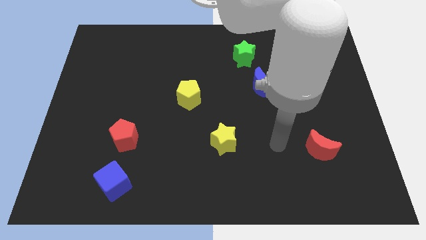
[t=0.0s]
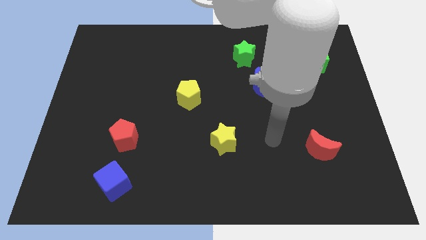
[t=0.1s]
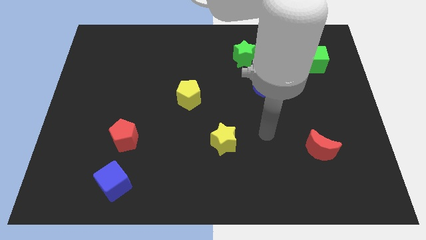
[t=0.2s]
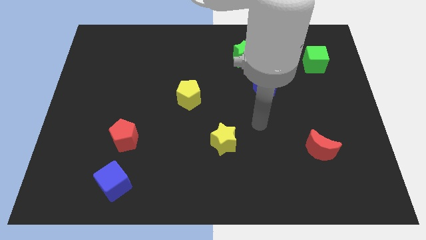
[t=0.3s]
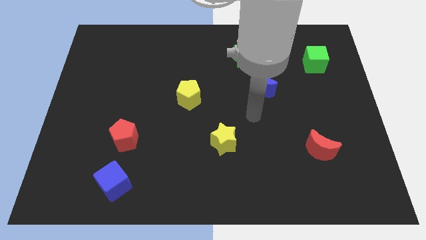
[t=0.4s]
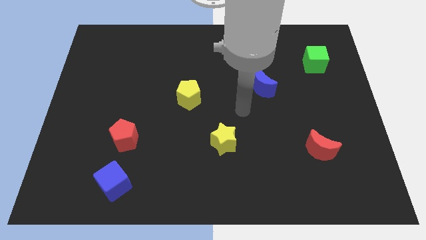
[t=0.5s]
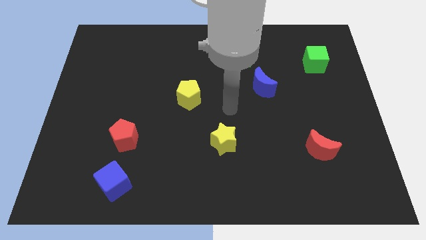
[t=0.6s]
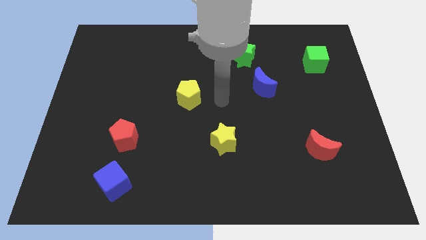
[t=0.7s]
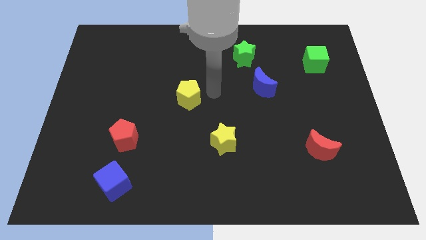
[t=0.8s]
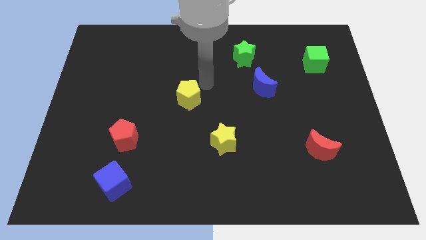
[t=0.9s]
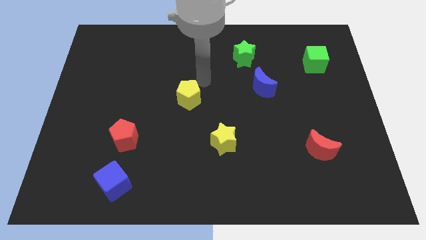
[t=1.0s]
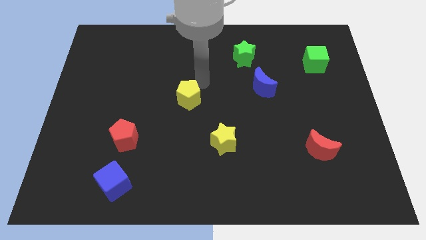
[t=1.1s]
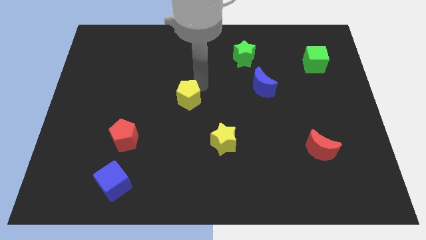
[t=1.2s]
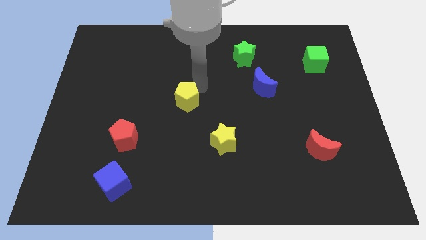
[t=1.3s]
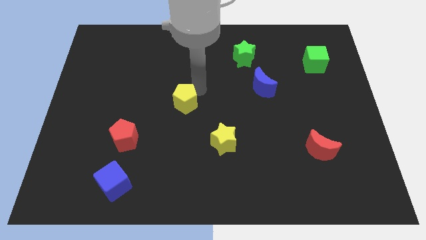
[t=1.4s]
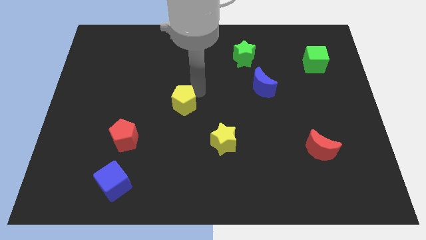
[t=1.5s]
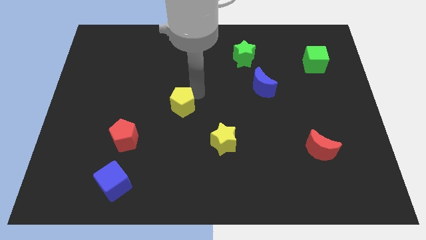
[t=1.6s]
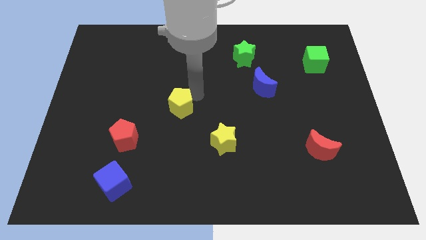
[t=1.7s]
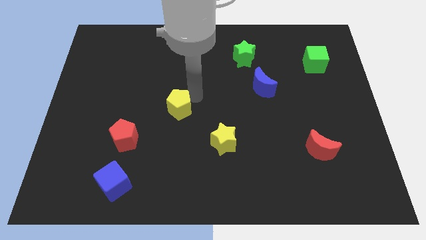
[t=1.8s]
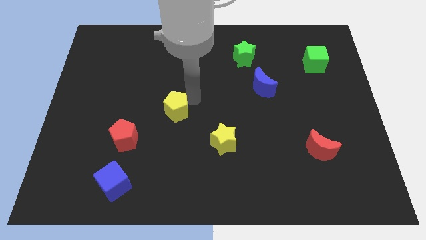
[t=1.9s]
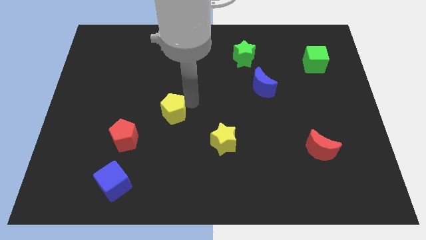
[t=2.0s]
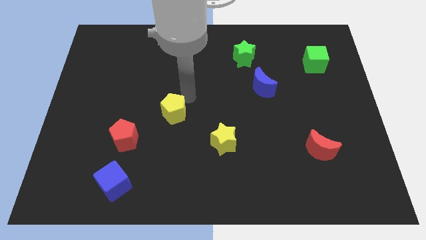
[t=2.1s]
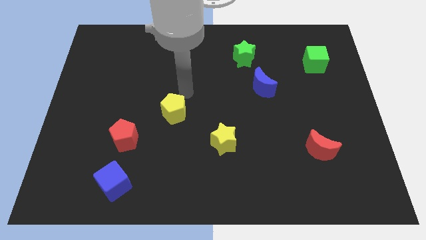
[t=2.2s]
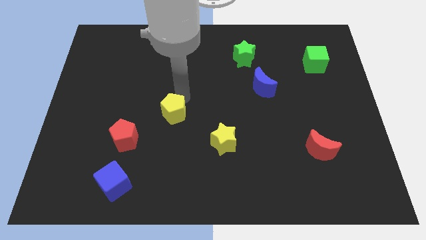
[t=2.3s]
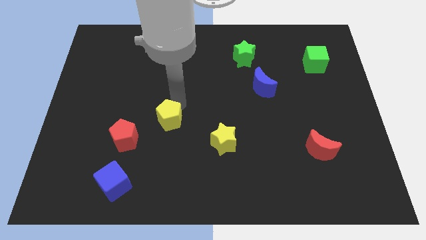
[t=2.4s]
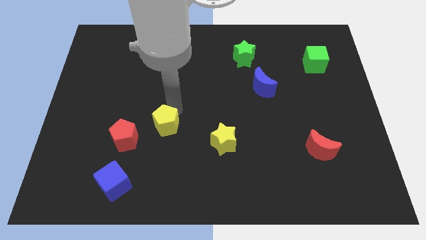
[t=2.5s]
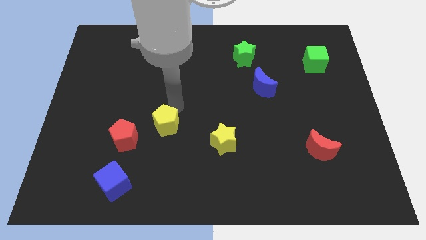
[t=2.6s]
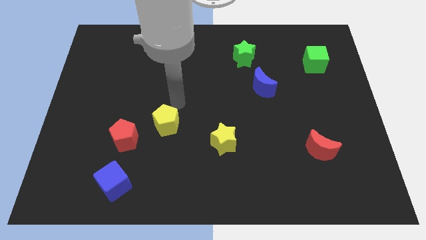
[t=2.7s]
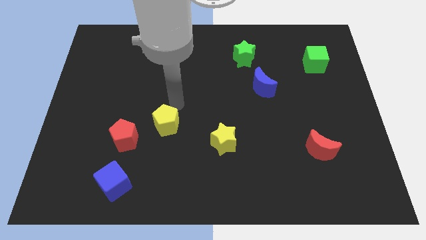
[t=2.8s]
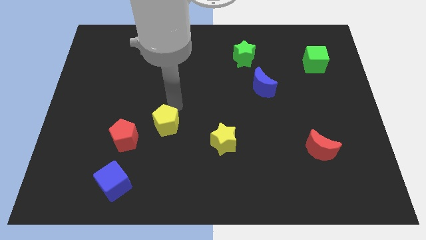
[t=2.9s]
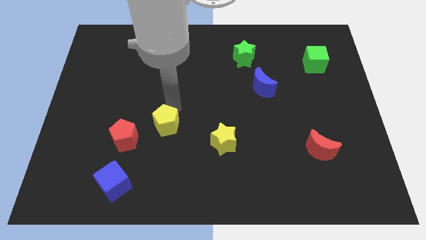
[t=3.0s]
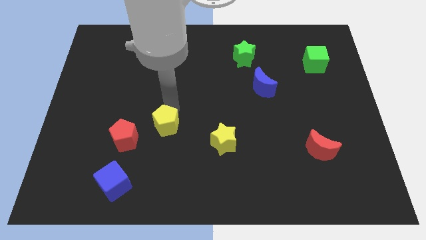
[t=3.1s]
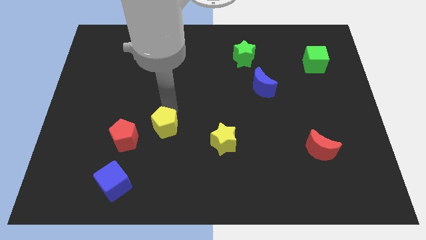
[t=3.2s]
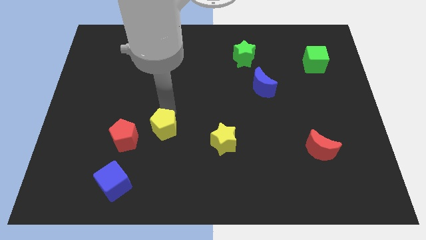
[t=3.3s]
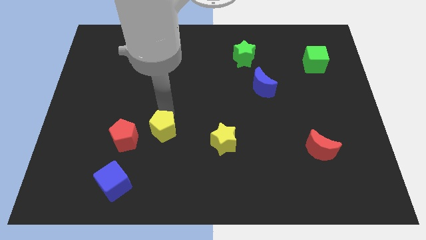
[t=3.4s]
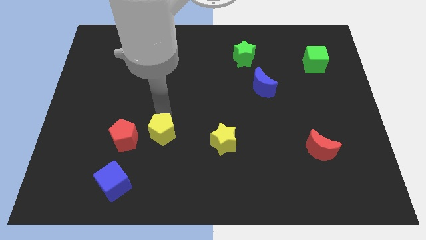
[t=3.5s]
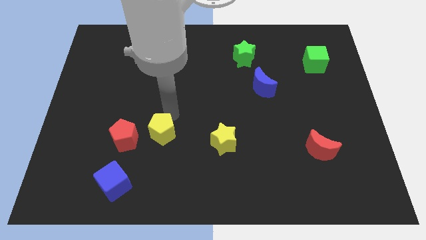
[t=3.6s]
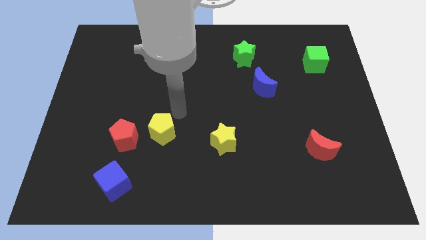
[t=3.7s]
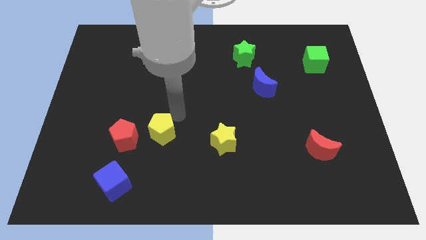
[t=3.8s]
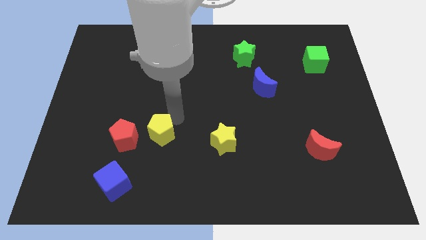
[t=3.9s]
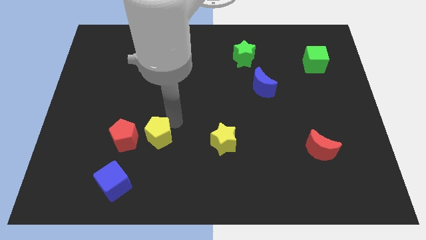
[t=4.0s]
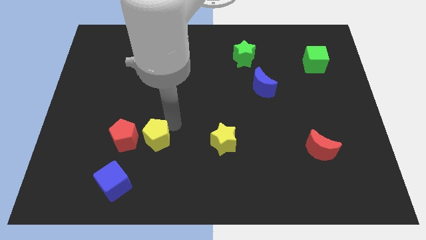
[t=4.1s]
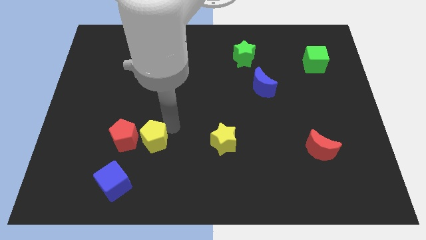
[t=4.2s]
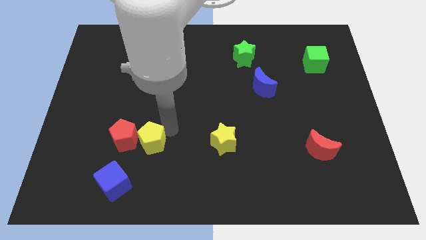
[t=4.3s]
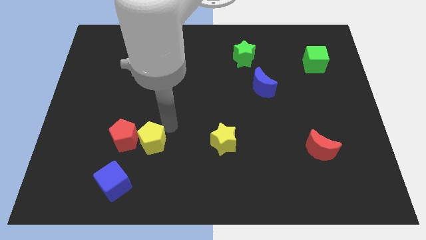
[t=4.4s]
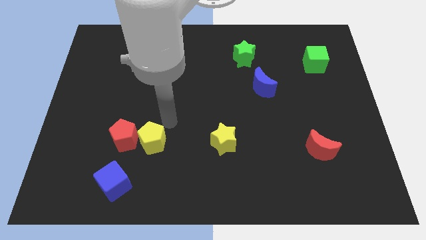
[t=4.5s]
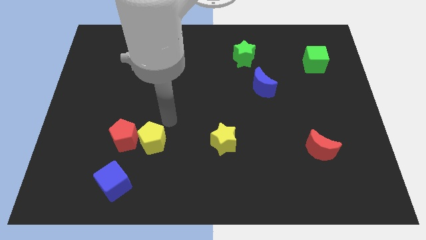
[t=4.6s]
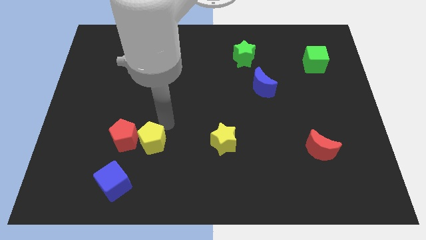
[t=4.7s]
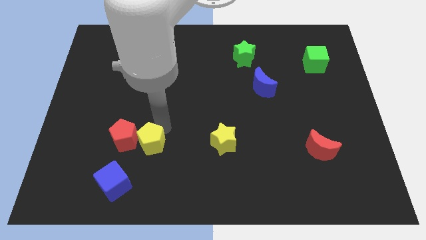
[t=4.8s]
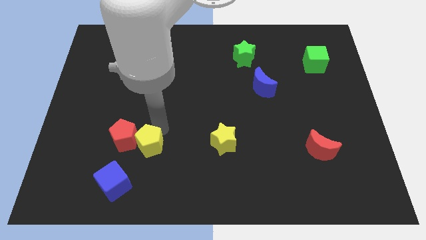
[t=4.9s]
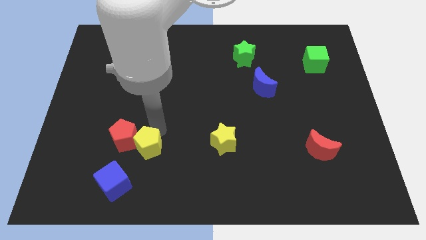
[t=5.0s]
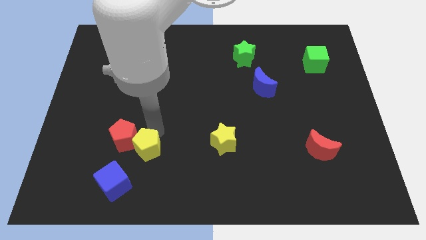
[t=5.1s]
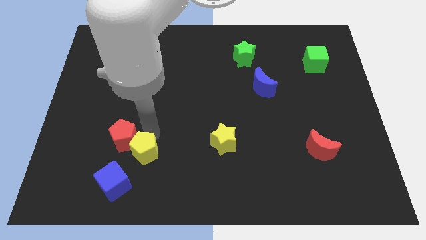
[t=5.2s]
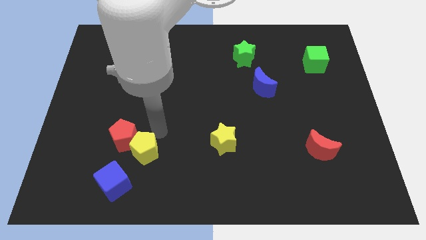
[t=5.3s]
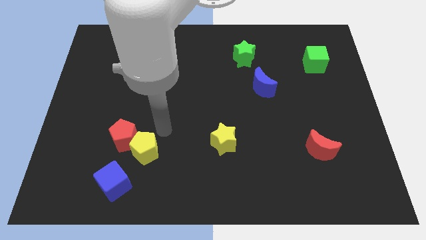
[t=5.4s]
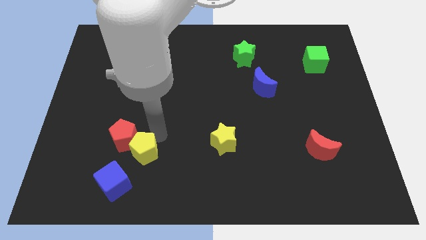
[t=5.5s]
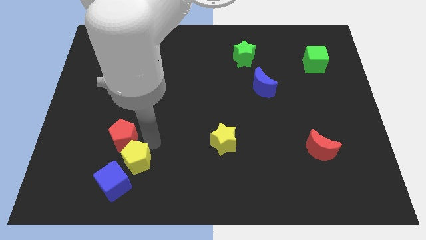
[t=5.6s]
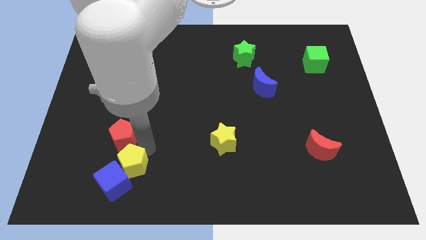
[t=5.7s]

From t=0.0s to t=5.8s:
slide the yellow pentagon close to the blue cube

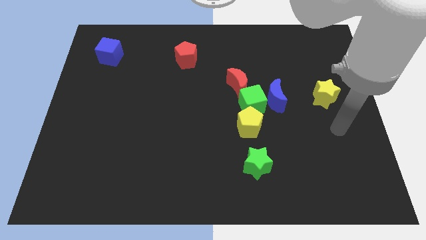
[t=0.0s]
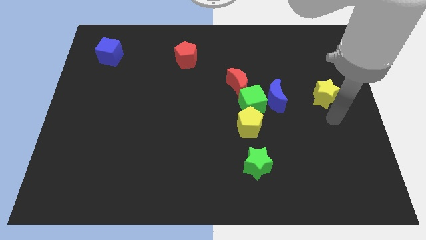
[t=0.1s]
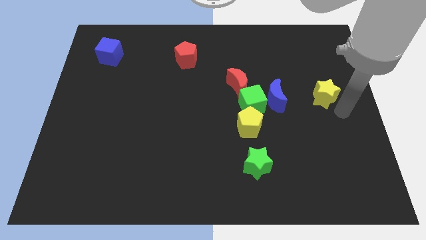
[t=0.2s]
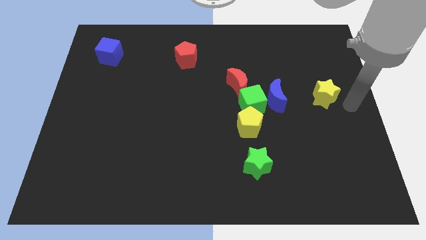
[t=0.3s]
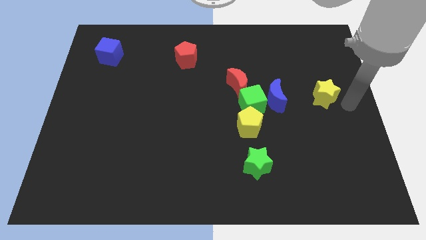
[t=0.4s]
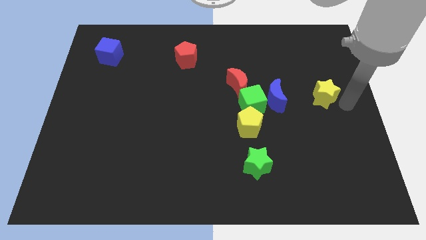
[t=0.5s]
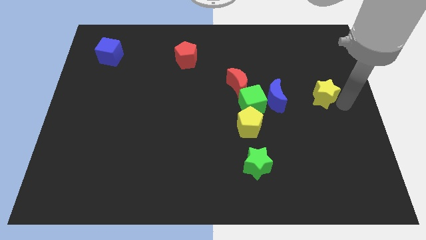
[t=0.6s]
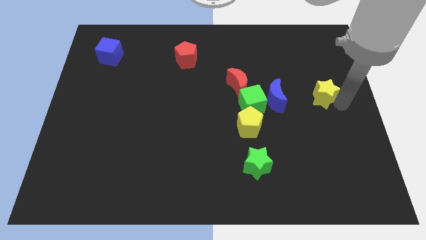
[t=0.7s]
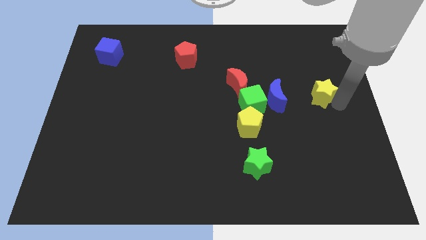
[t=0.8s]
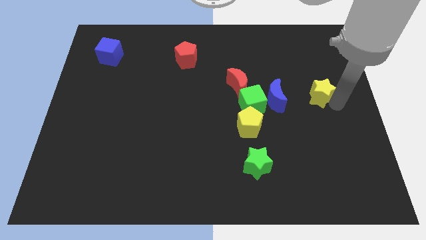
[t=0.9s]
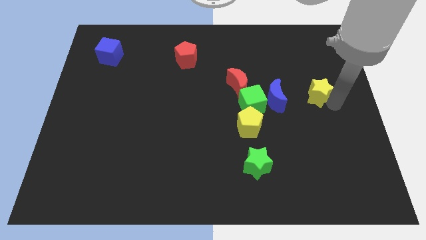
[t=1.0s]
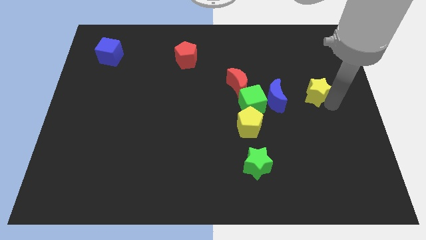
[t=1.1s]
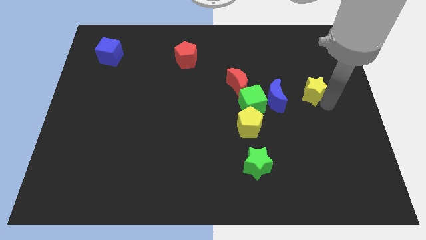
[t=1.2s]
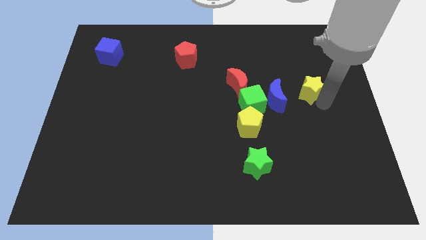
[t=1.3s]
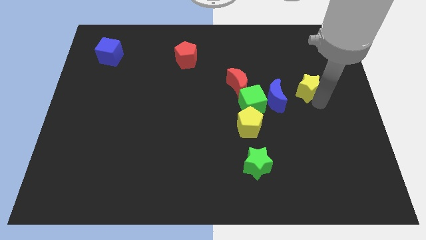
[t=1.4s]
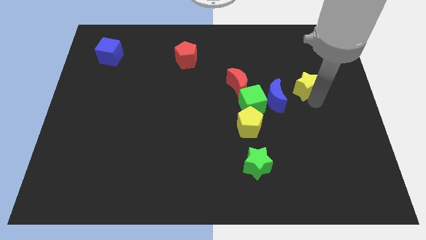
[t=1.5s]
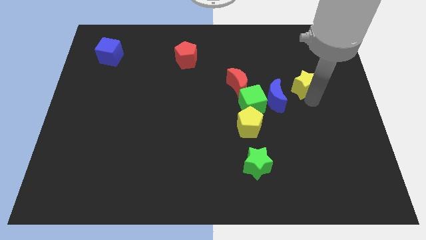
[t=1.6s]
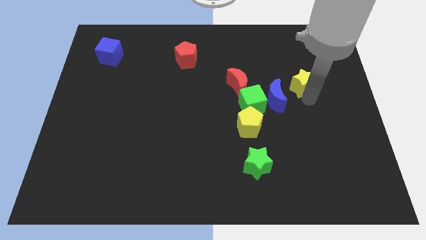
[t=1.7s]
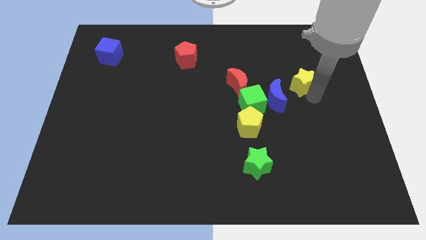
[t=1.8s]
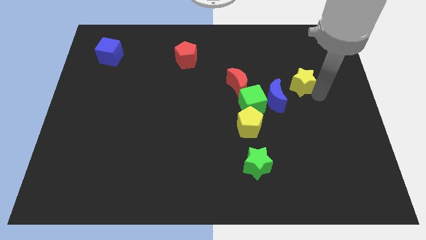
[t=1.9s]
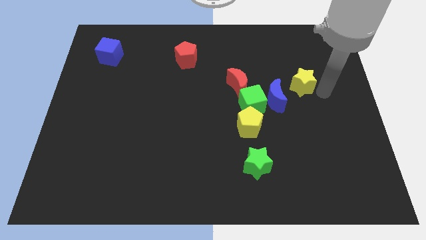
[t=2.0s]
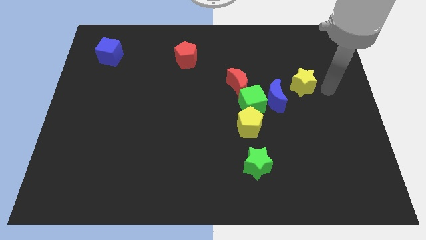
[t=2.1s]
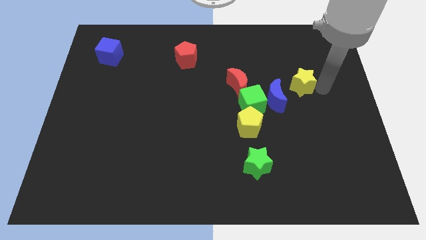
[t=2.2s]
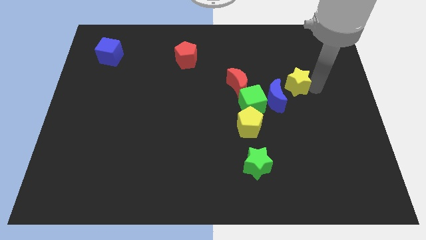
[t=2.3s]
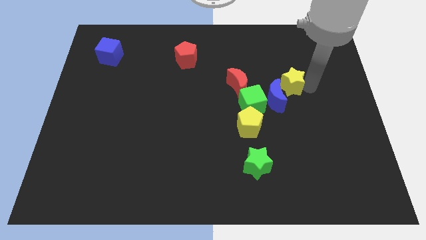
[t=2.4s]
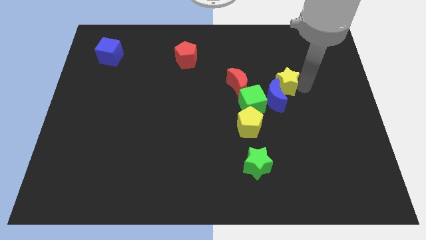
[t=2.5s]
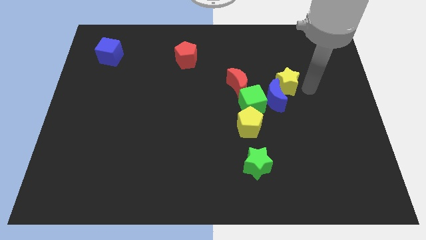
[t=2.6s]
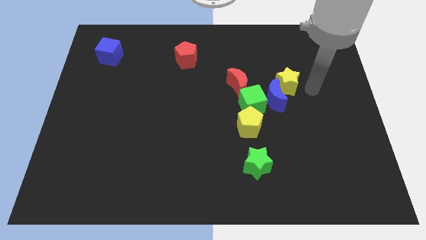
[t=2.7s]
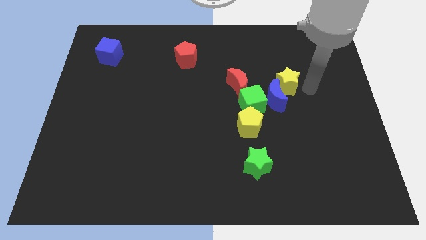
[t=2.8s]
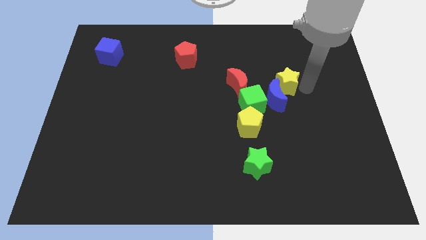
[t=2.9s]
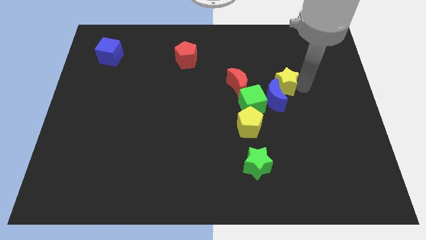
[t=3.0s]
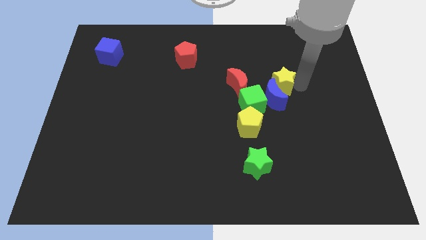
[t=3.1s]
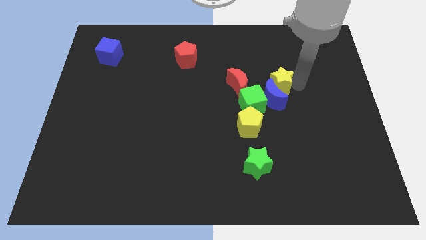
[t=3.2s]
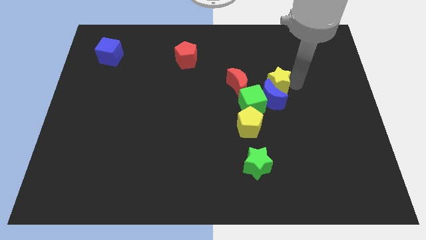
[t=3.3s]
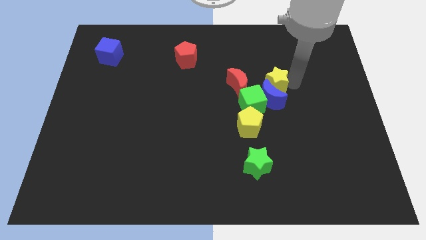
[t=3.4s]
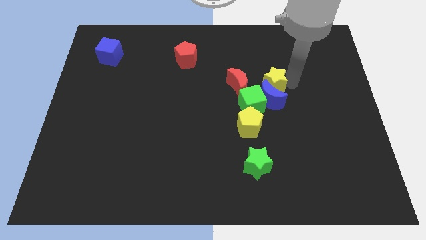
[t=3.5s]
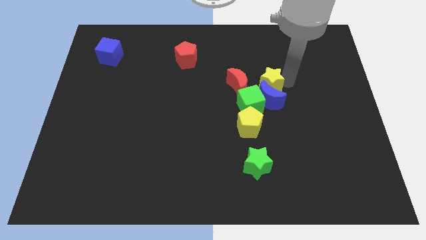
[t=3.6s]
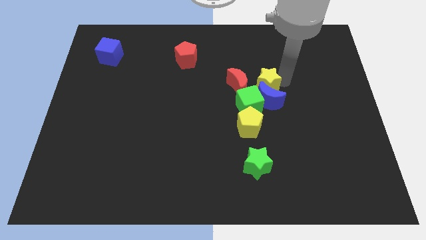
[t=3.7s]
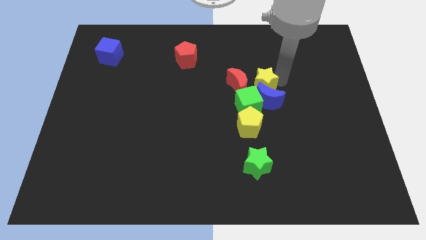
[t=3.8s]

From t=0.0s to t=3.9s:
slide the yellow star to the red moon
